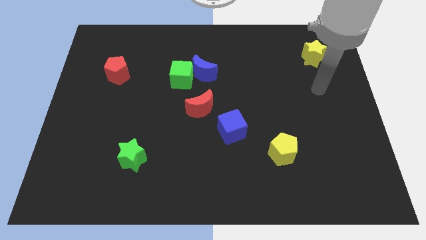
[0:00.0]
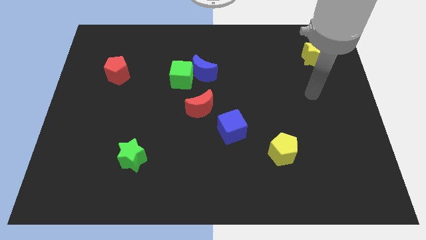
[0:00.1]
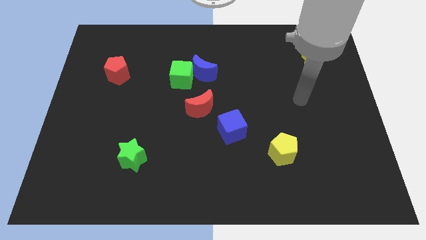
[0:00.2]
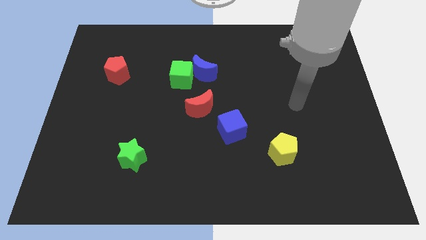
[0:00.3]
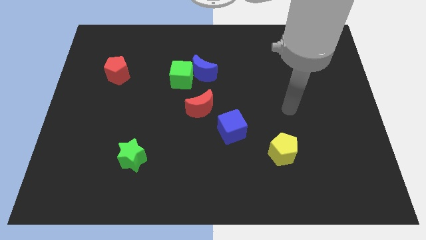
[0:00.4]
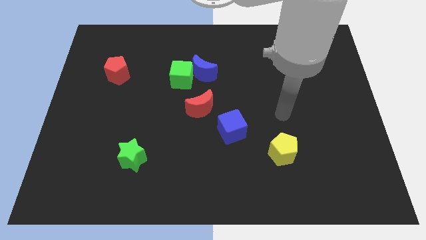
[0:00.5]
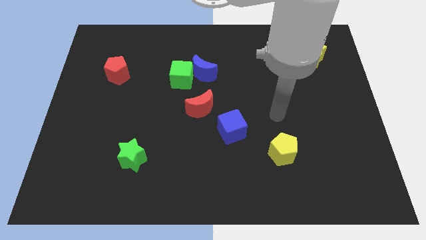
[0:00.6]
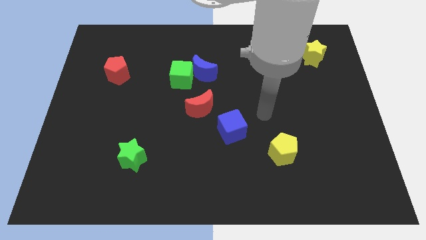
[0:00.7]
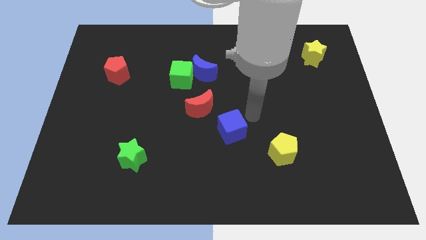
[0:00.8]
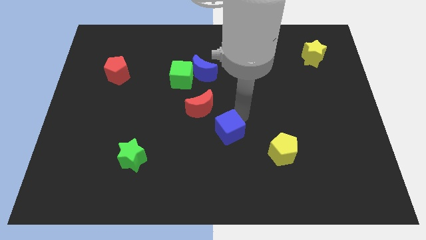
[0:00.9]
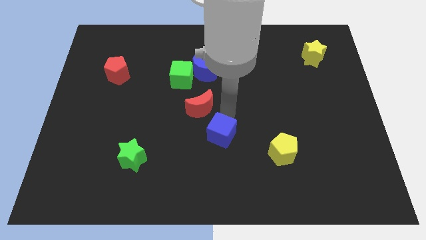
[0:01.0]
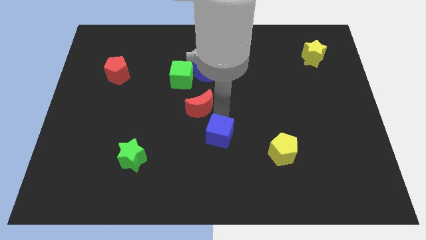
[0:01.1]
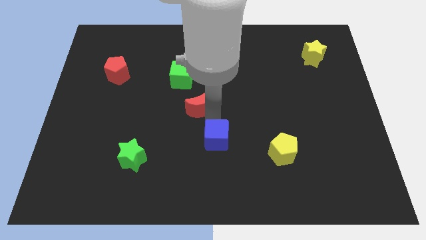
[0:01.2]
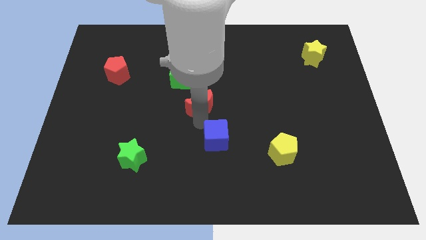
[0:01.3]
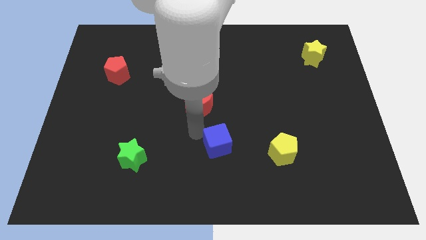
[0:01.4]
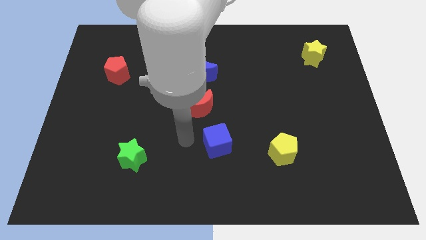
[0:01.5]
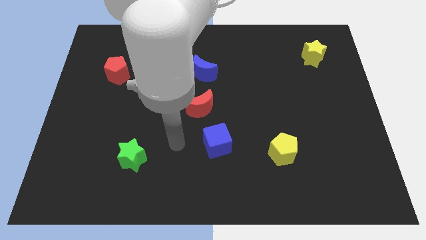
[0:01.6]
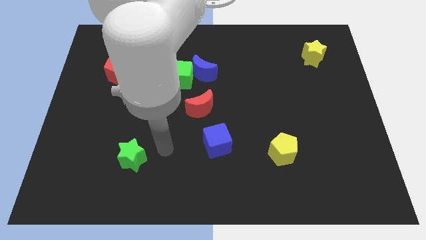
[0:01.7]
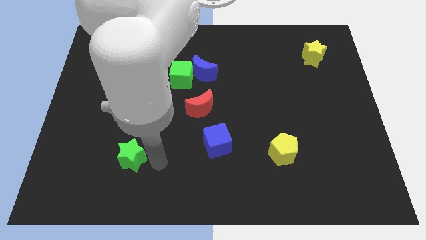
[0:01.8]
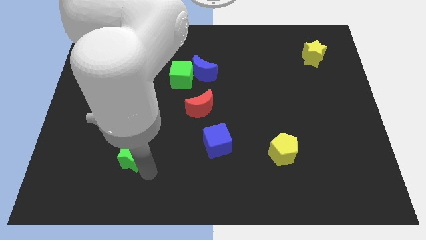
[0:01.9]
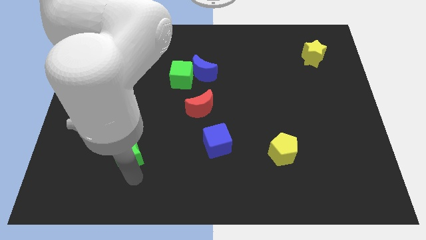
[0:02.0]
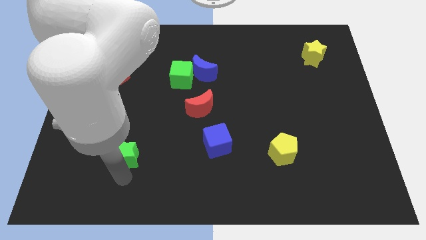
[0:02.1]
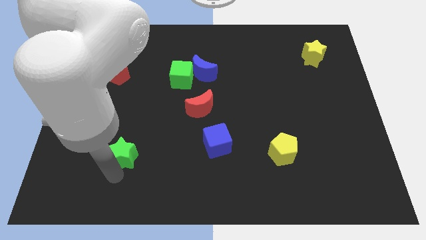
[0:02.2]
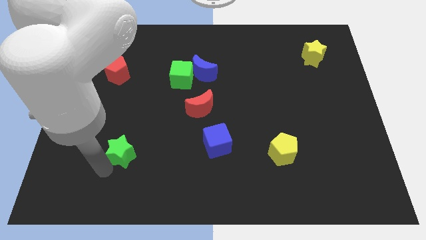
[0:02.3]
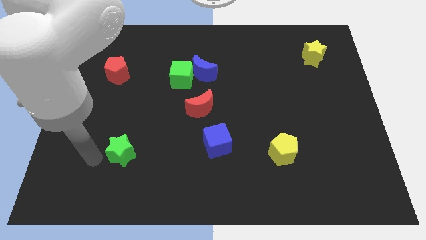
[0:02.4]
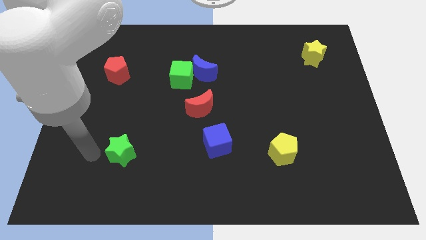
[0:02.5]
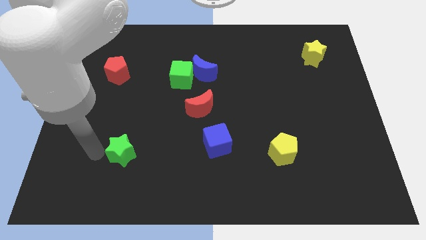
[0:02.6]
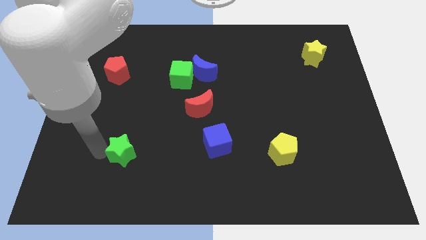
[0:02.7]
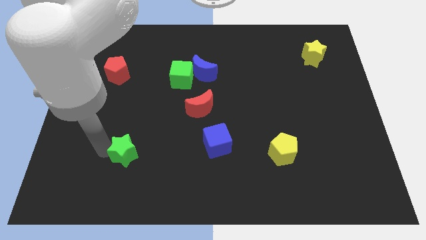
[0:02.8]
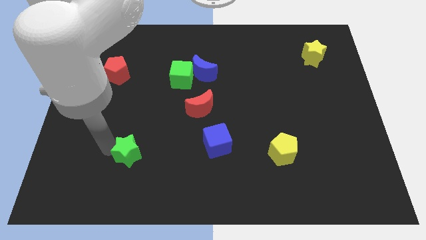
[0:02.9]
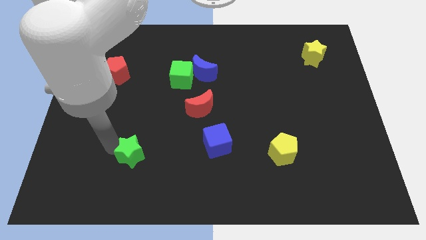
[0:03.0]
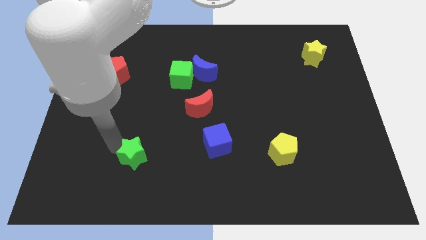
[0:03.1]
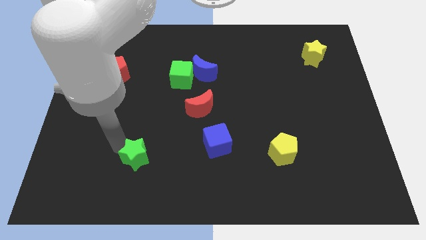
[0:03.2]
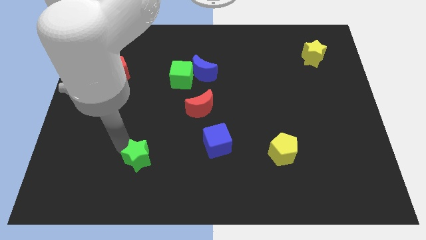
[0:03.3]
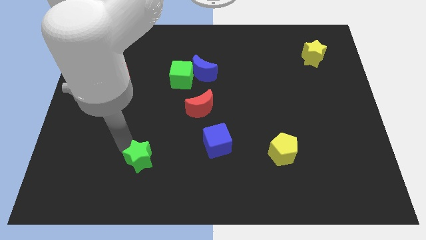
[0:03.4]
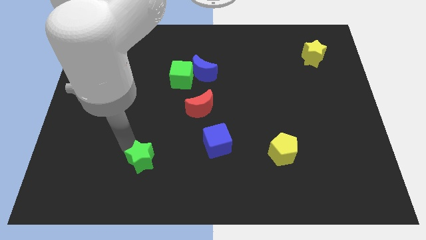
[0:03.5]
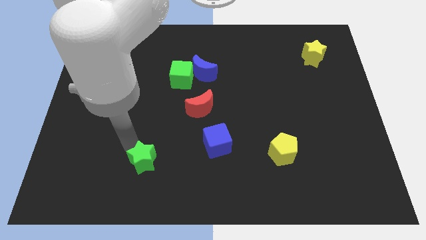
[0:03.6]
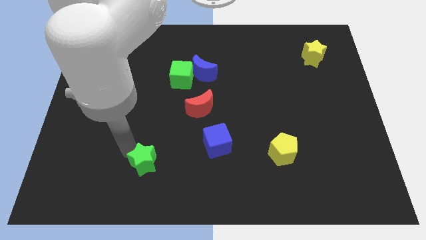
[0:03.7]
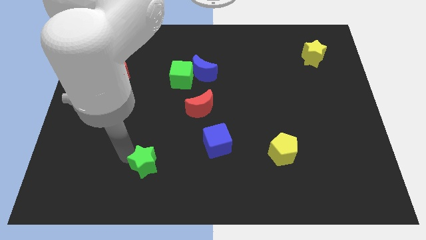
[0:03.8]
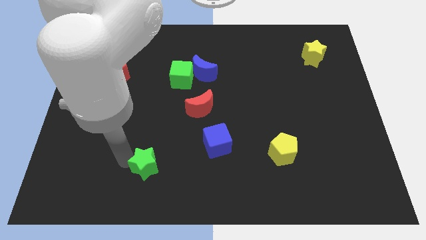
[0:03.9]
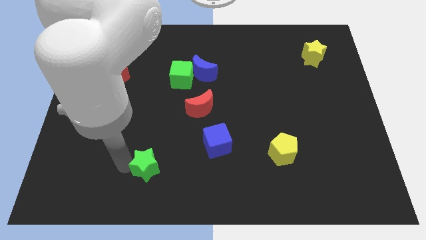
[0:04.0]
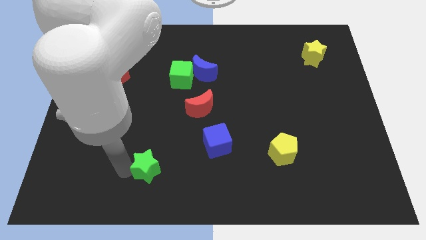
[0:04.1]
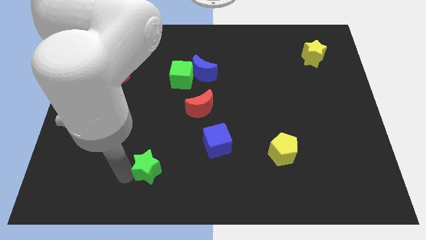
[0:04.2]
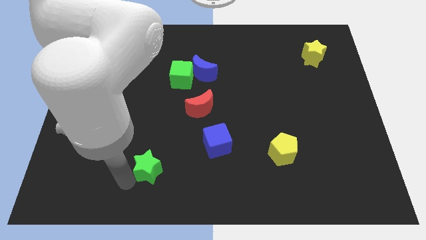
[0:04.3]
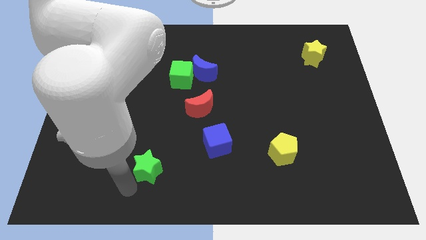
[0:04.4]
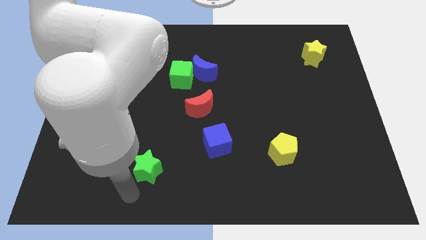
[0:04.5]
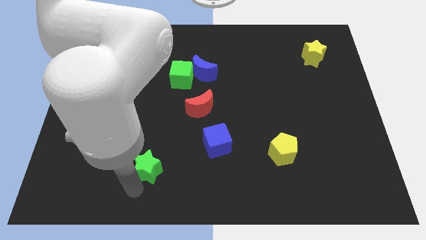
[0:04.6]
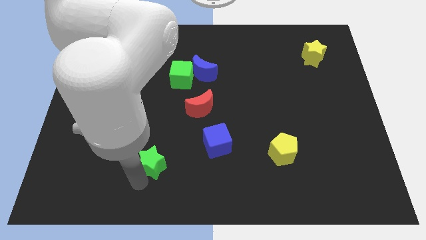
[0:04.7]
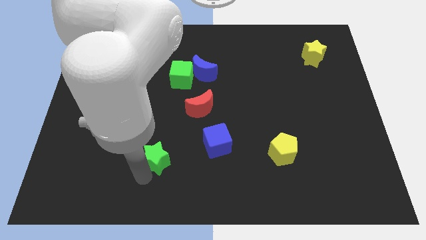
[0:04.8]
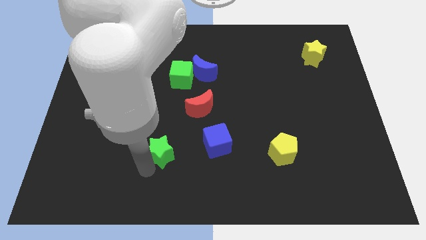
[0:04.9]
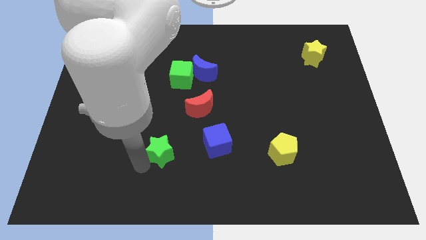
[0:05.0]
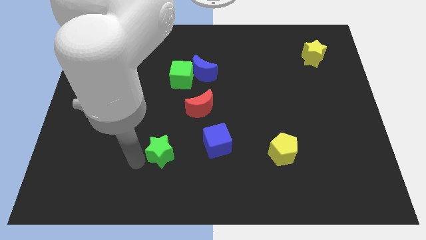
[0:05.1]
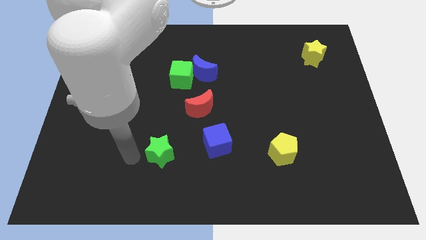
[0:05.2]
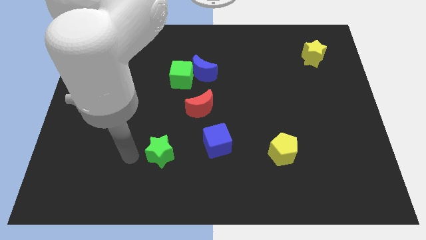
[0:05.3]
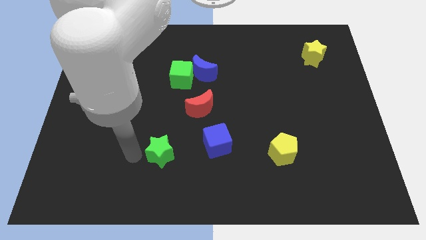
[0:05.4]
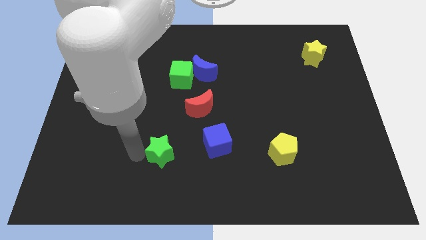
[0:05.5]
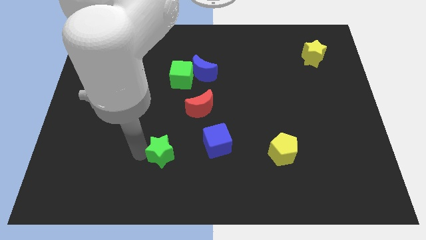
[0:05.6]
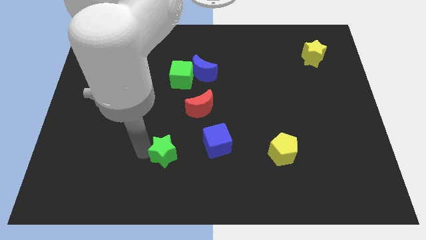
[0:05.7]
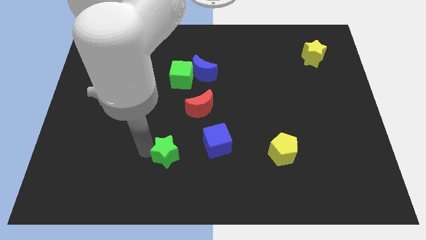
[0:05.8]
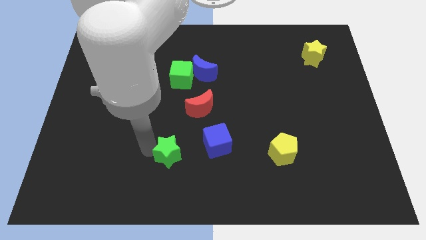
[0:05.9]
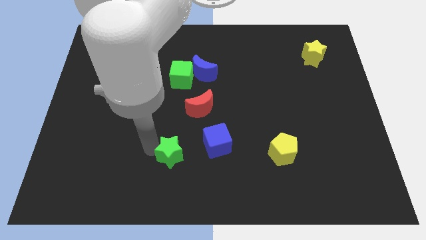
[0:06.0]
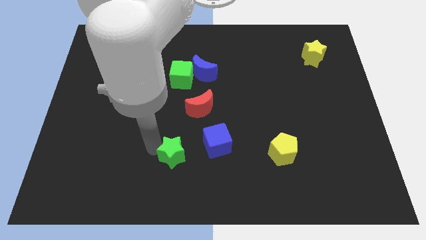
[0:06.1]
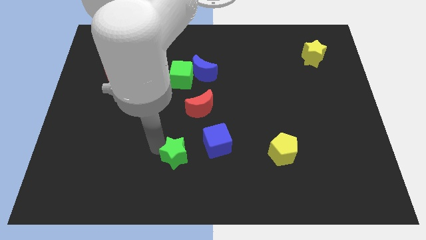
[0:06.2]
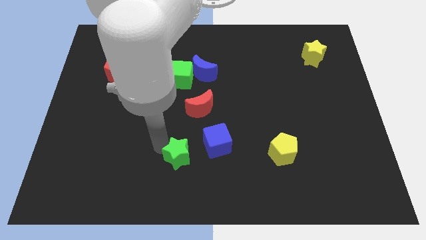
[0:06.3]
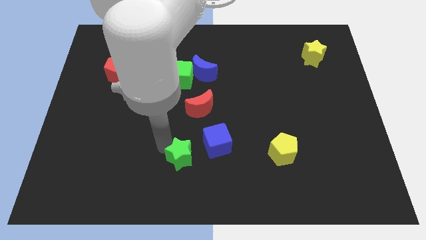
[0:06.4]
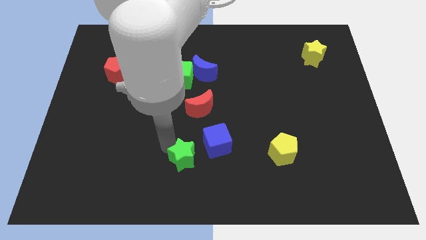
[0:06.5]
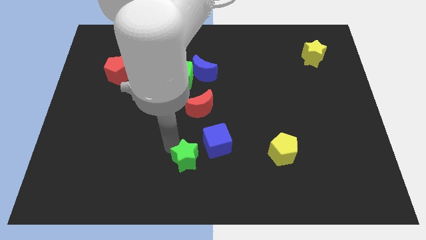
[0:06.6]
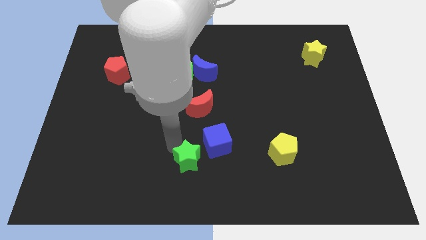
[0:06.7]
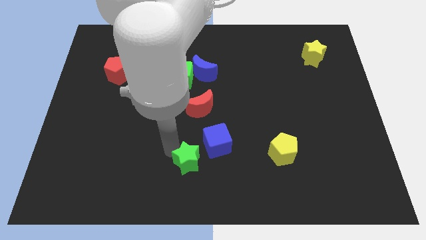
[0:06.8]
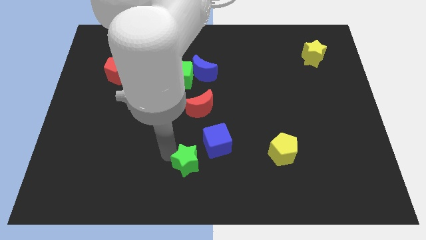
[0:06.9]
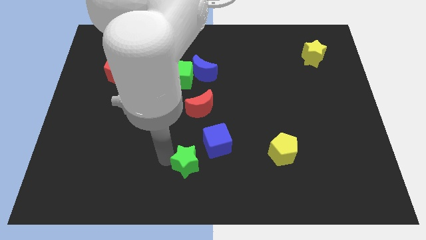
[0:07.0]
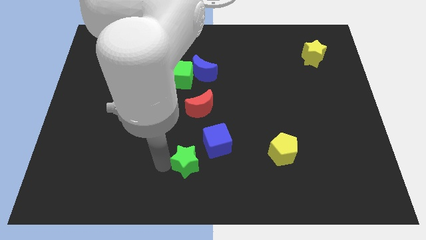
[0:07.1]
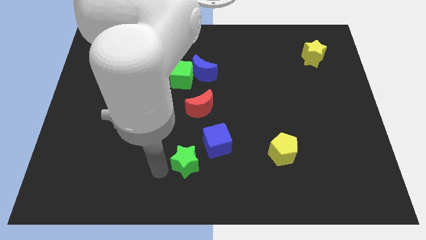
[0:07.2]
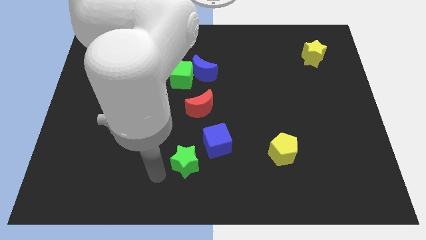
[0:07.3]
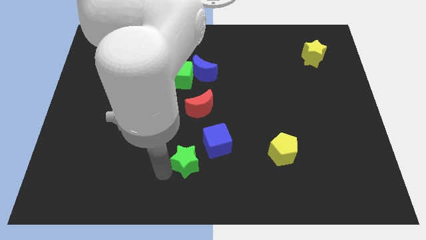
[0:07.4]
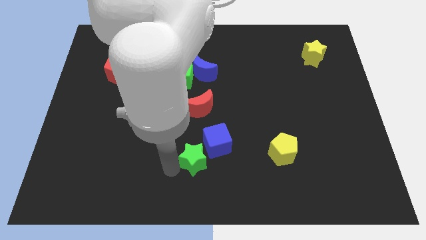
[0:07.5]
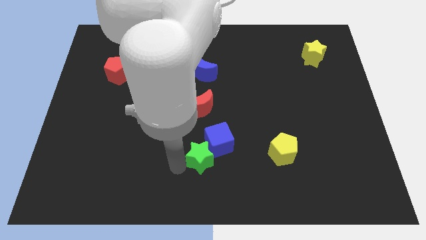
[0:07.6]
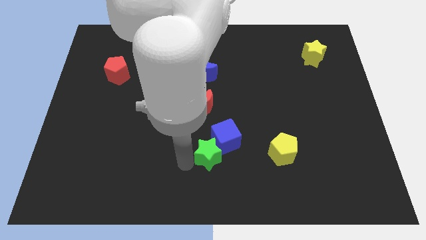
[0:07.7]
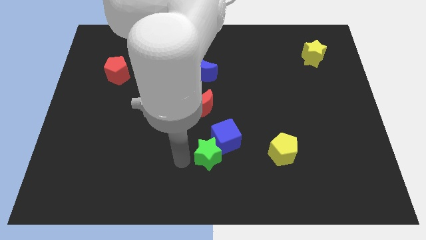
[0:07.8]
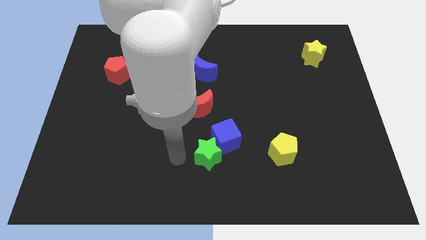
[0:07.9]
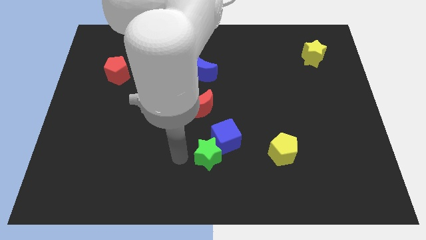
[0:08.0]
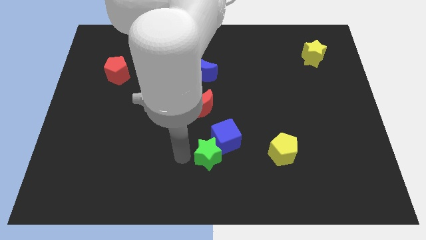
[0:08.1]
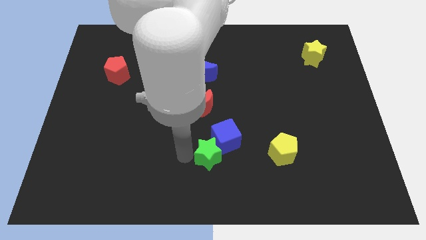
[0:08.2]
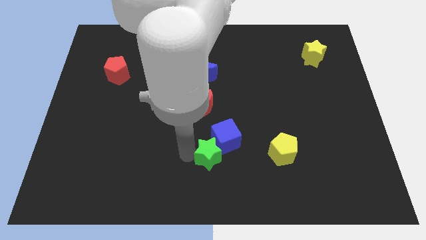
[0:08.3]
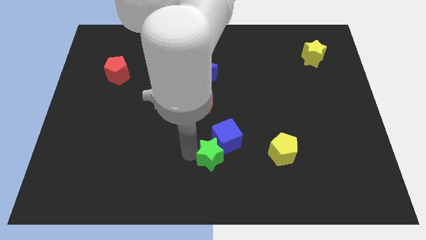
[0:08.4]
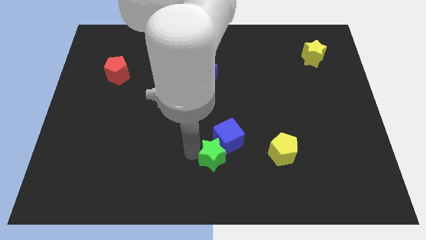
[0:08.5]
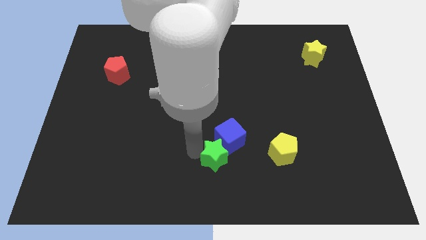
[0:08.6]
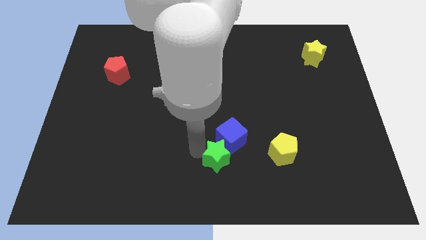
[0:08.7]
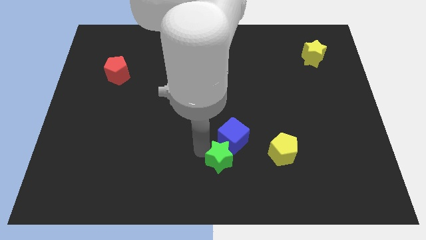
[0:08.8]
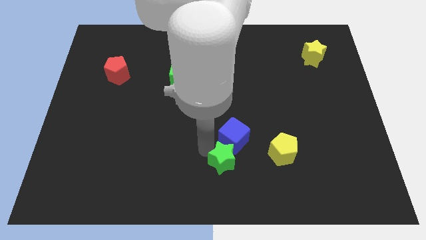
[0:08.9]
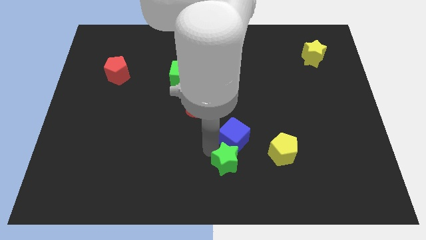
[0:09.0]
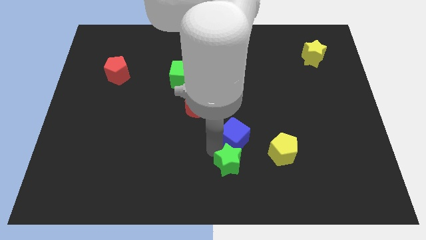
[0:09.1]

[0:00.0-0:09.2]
move the green star to the bottom right side of the blue cube
